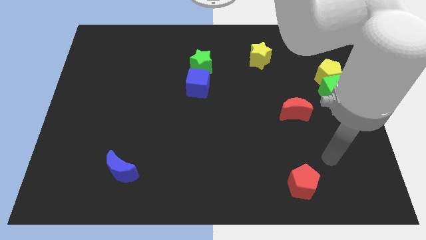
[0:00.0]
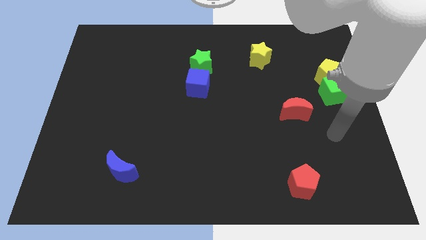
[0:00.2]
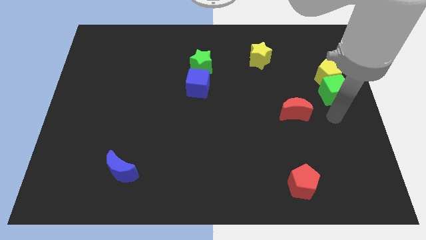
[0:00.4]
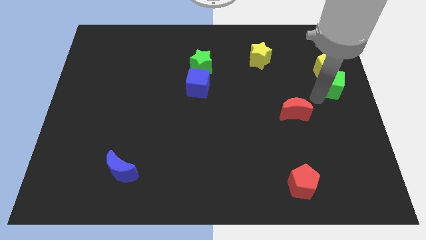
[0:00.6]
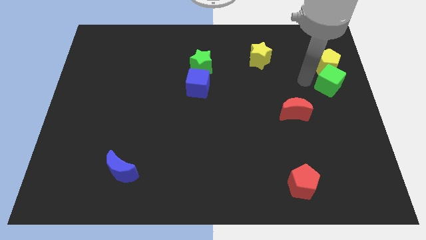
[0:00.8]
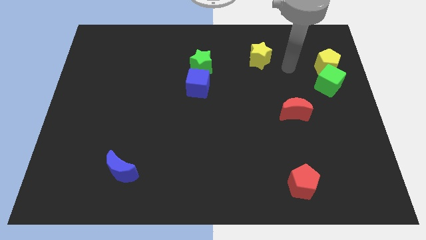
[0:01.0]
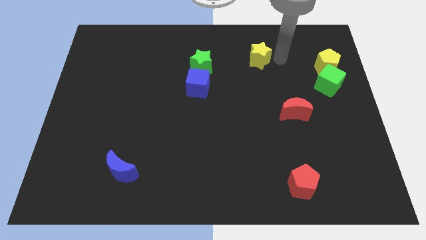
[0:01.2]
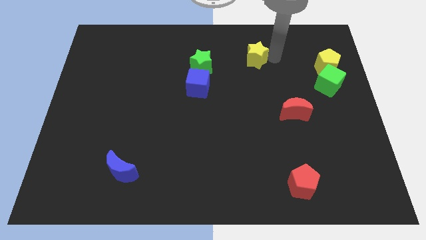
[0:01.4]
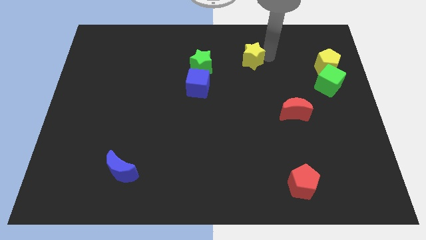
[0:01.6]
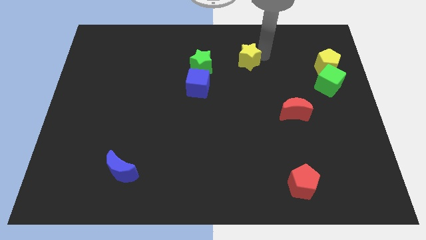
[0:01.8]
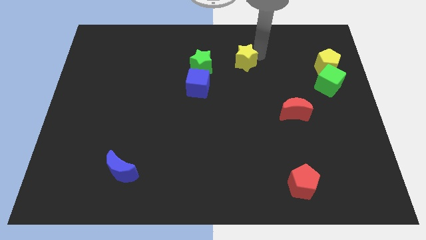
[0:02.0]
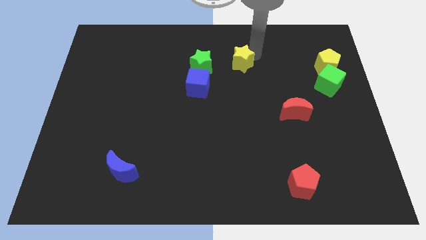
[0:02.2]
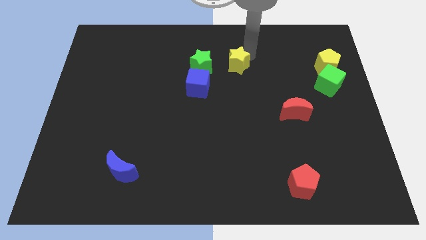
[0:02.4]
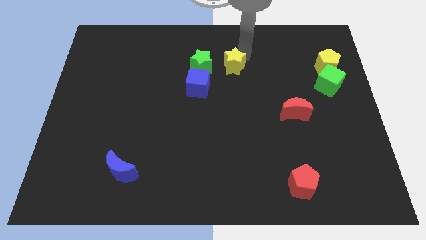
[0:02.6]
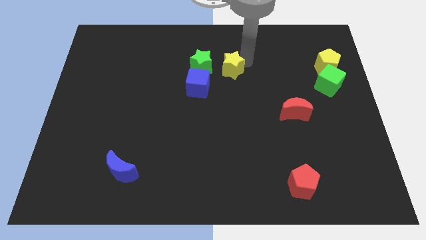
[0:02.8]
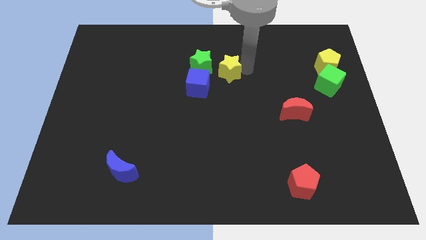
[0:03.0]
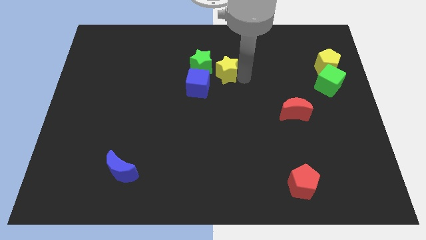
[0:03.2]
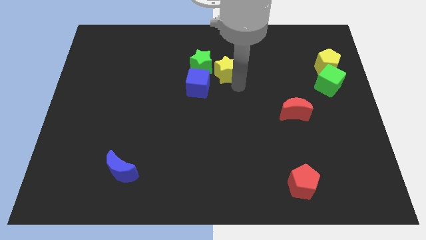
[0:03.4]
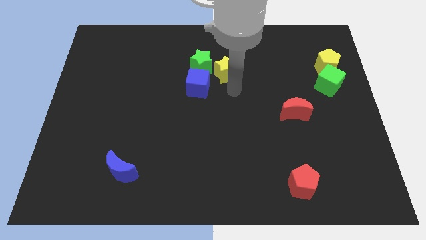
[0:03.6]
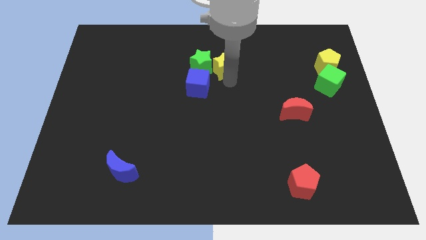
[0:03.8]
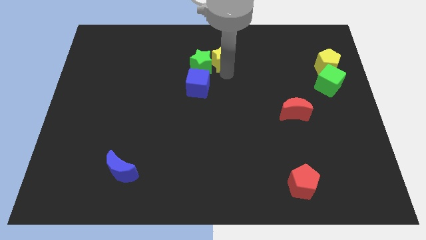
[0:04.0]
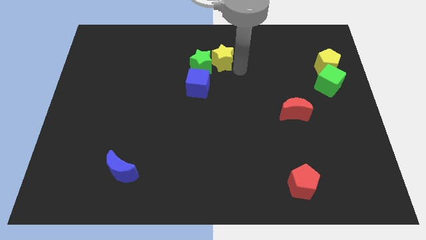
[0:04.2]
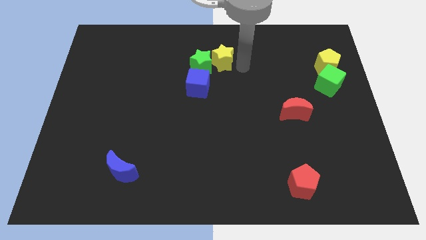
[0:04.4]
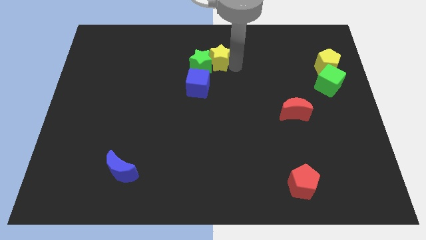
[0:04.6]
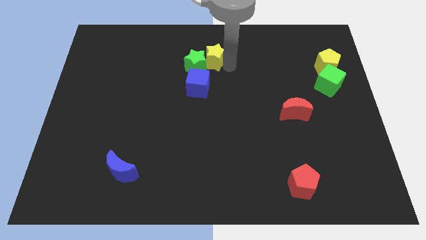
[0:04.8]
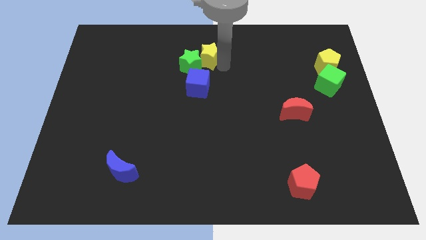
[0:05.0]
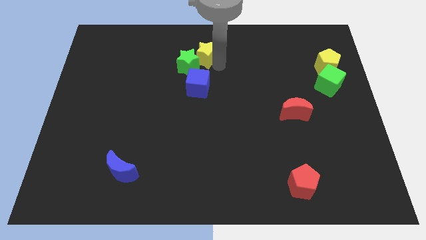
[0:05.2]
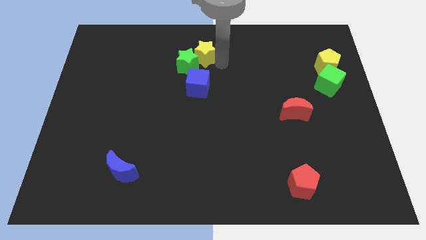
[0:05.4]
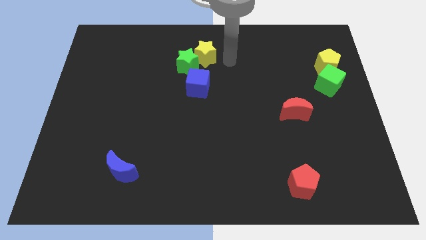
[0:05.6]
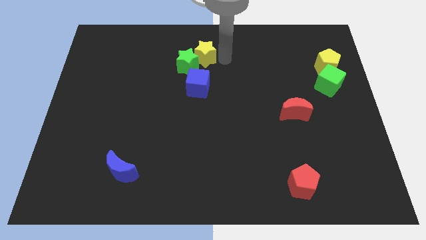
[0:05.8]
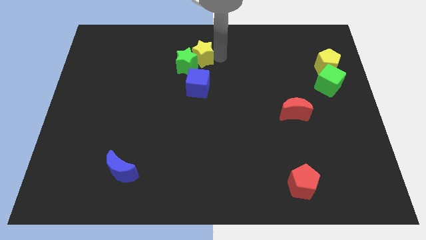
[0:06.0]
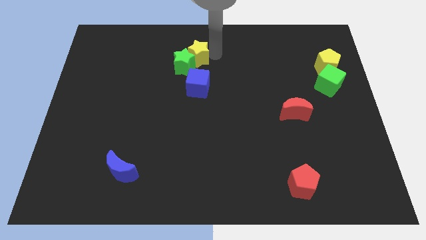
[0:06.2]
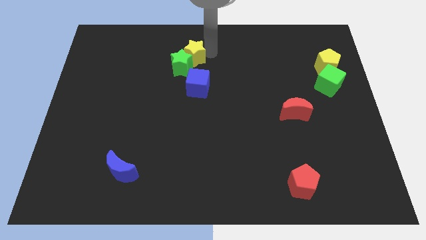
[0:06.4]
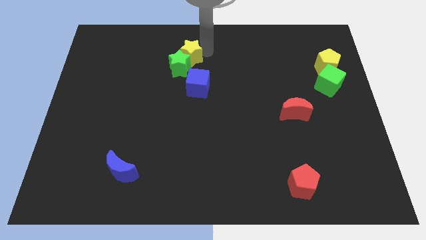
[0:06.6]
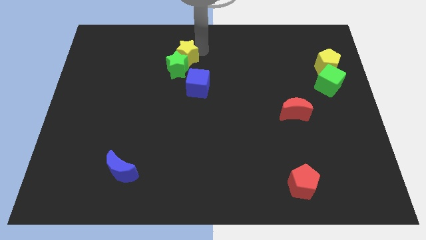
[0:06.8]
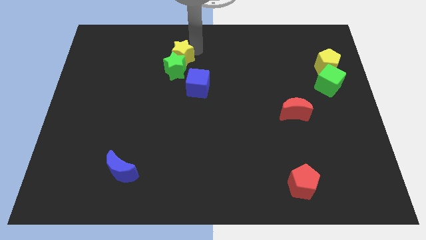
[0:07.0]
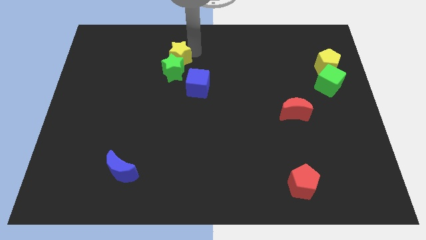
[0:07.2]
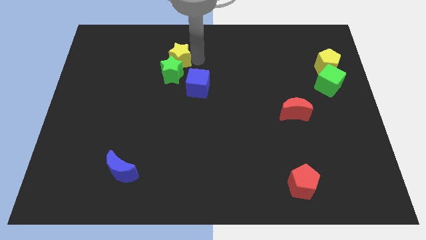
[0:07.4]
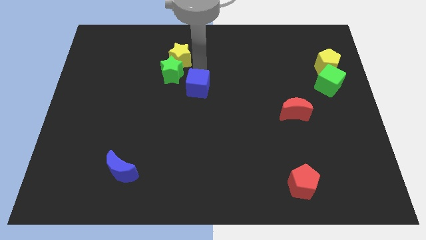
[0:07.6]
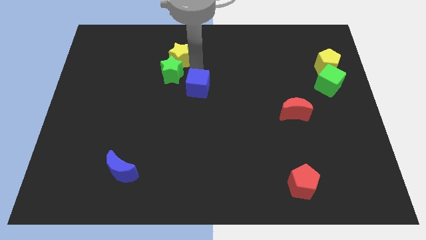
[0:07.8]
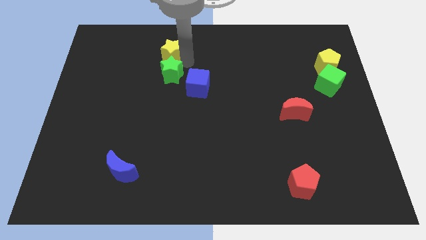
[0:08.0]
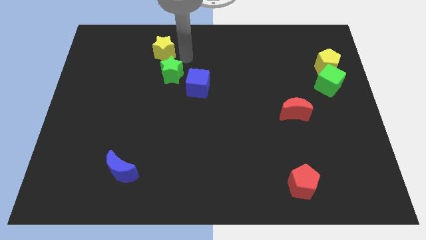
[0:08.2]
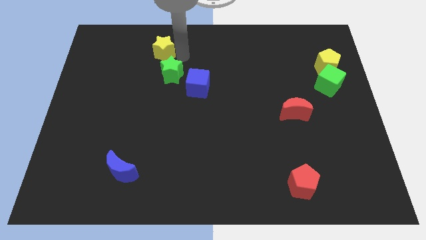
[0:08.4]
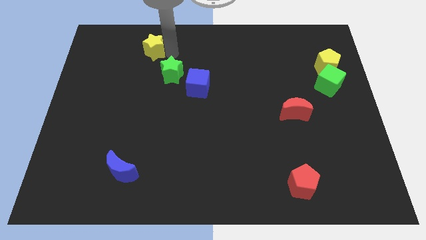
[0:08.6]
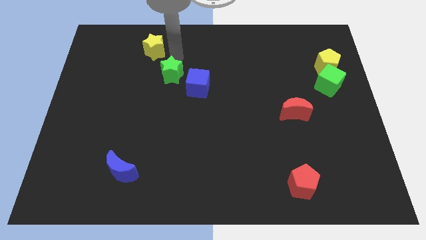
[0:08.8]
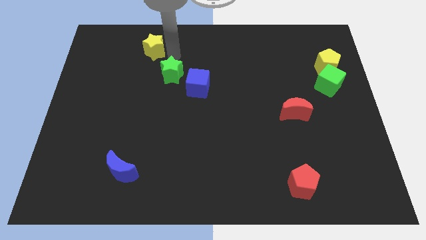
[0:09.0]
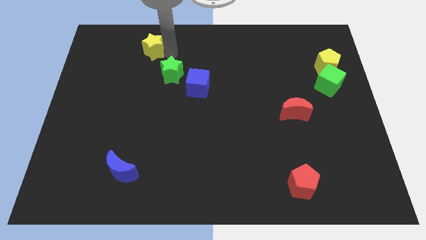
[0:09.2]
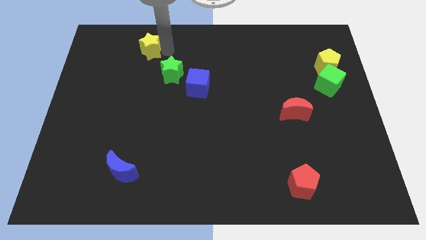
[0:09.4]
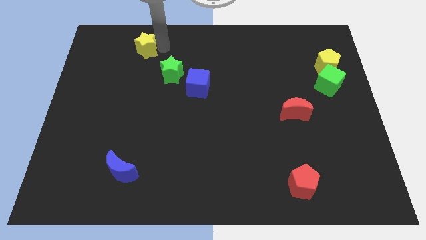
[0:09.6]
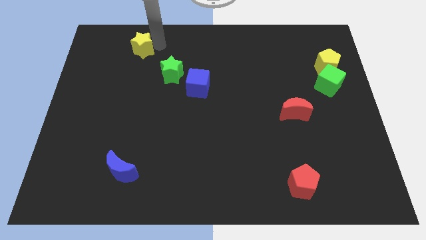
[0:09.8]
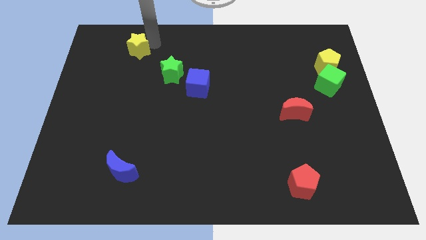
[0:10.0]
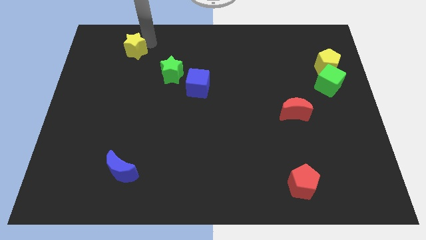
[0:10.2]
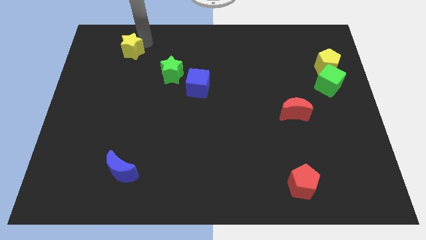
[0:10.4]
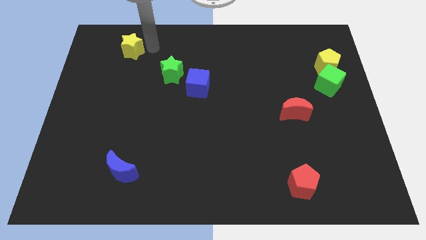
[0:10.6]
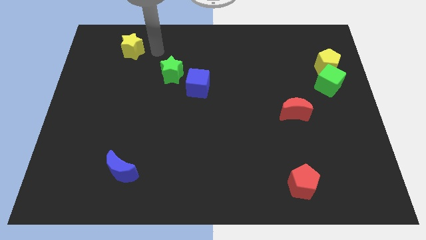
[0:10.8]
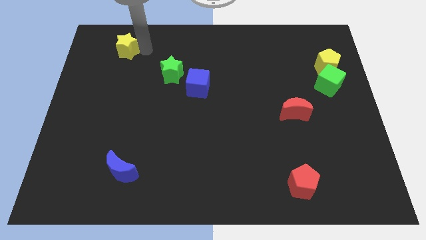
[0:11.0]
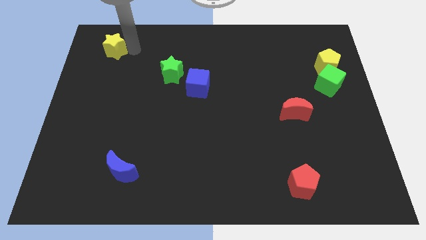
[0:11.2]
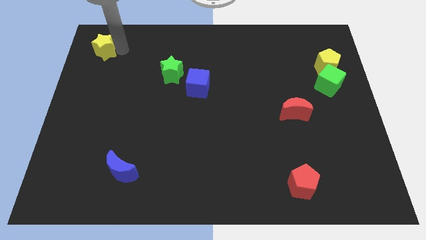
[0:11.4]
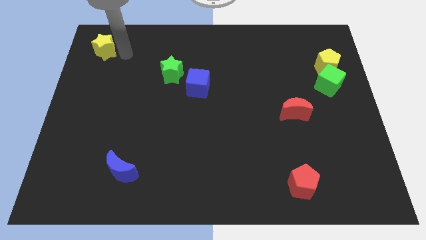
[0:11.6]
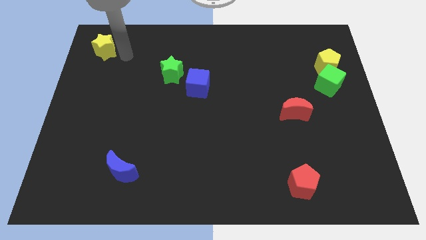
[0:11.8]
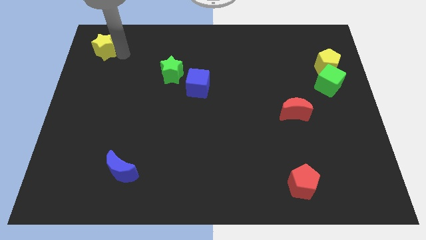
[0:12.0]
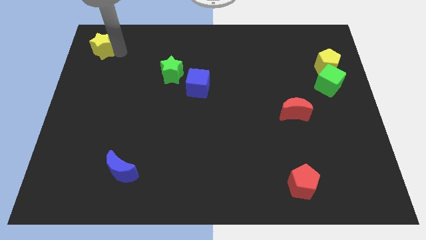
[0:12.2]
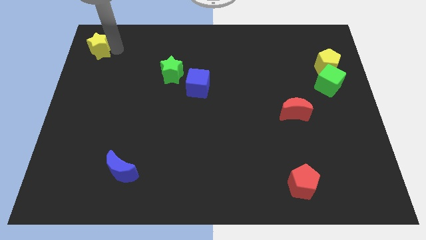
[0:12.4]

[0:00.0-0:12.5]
move the yellow star to the top left of the board

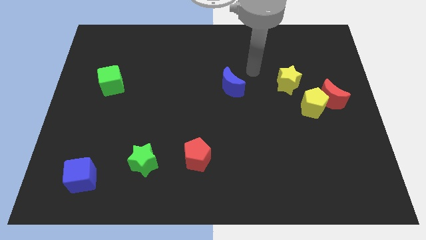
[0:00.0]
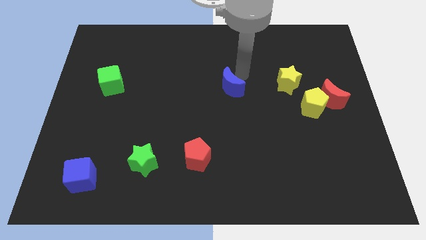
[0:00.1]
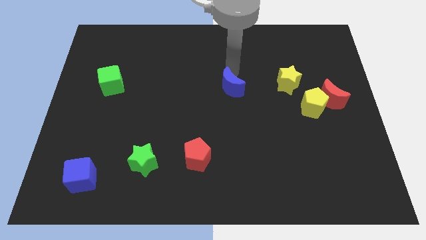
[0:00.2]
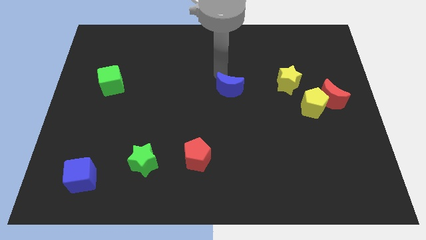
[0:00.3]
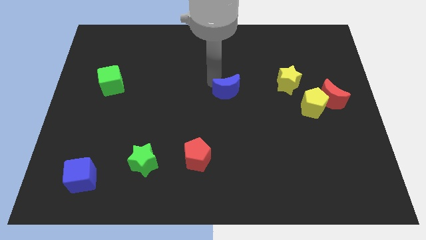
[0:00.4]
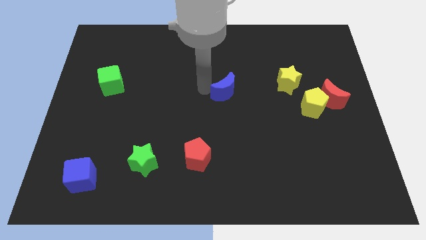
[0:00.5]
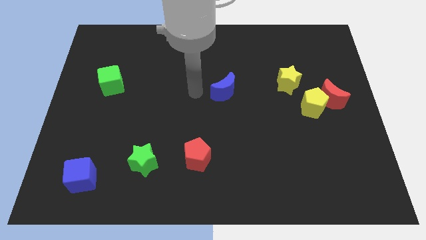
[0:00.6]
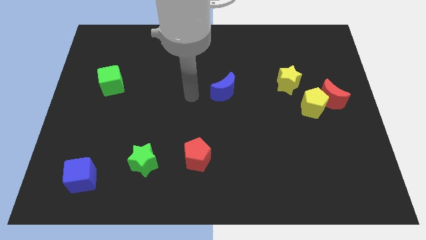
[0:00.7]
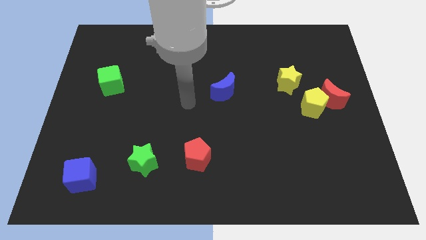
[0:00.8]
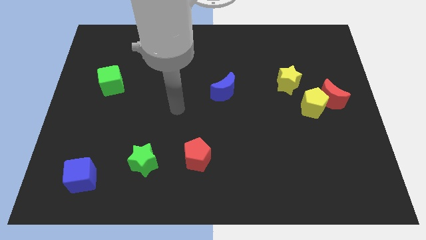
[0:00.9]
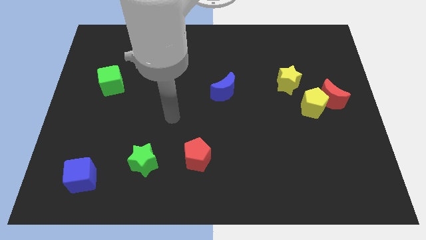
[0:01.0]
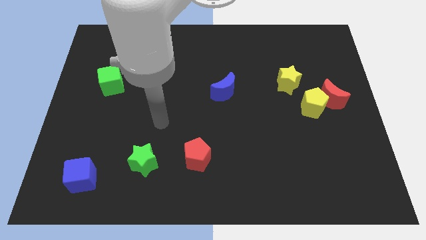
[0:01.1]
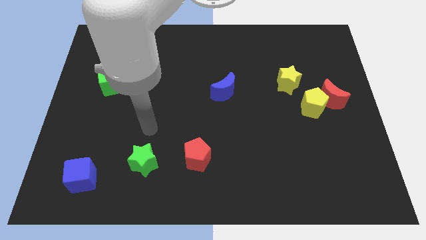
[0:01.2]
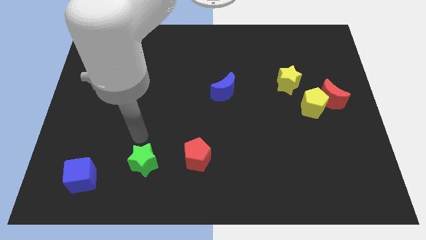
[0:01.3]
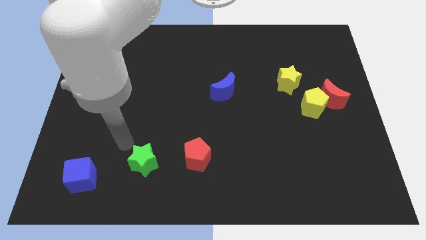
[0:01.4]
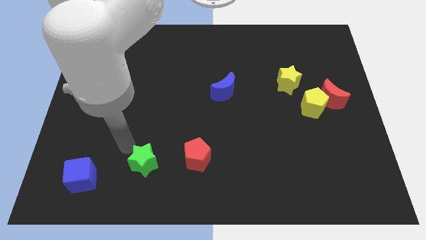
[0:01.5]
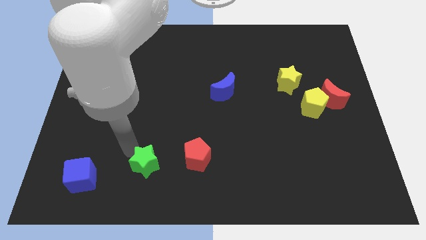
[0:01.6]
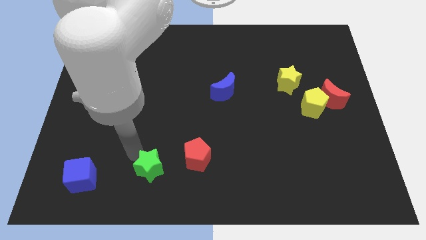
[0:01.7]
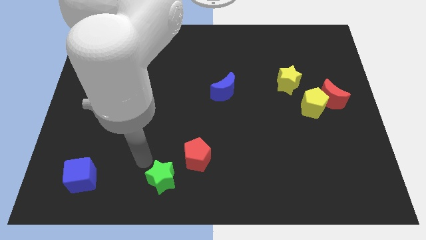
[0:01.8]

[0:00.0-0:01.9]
push the green star to the bottom

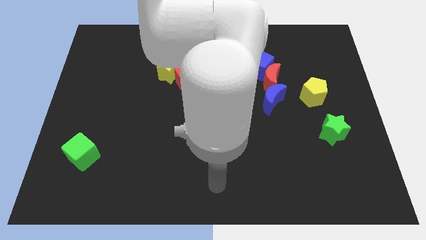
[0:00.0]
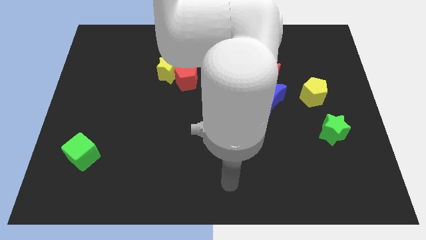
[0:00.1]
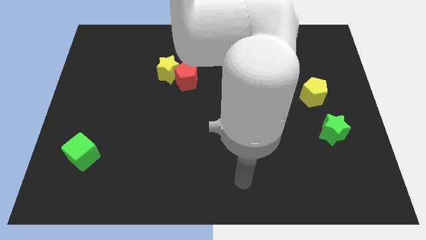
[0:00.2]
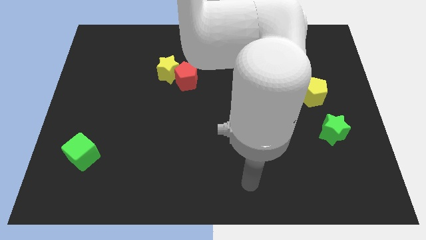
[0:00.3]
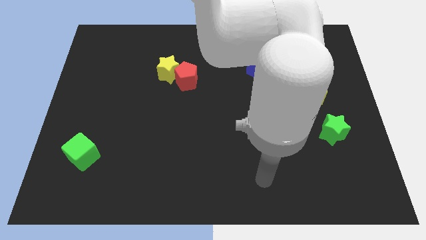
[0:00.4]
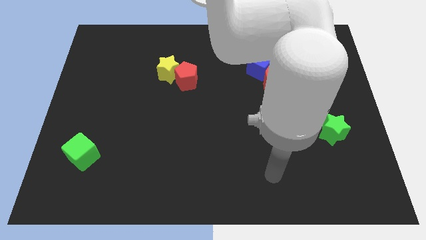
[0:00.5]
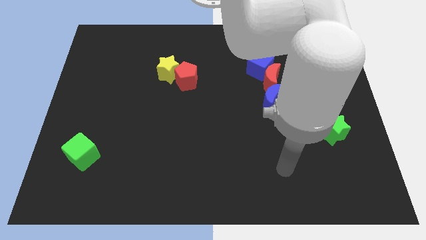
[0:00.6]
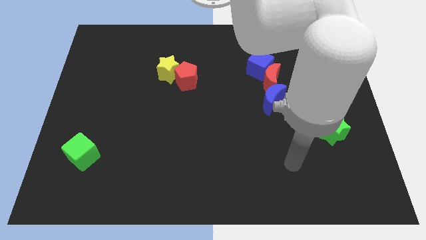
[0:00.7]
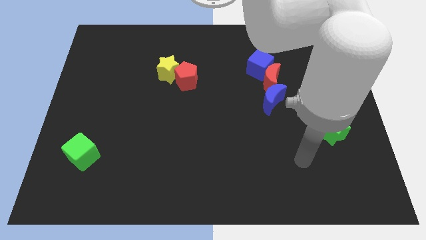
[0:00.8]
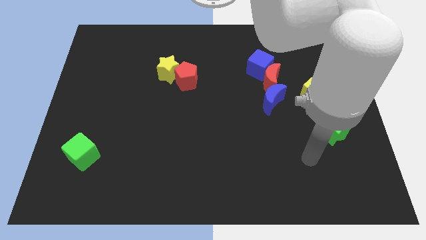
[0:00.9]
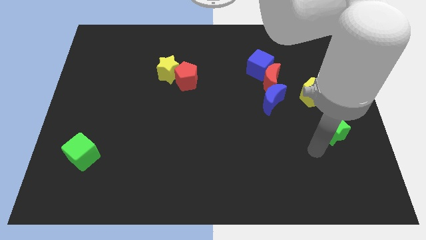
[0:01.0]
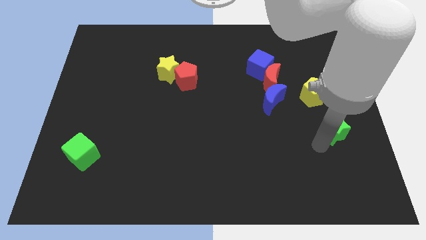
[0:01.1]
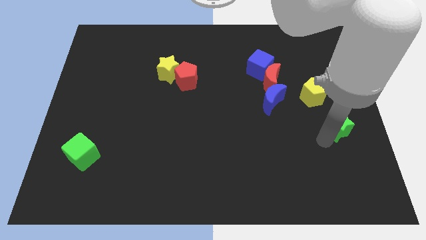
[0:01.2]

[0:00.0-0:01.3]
move the green star to the right side
